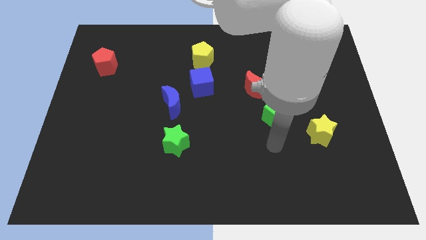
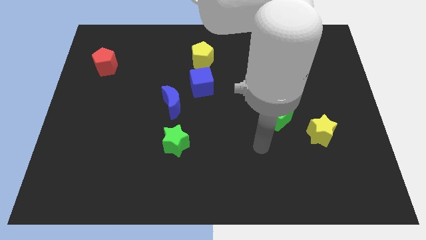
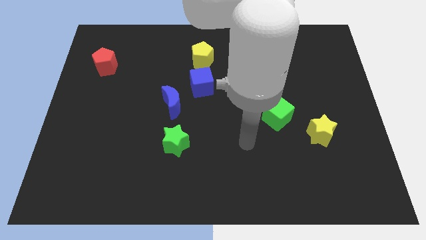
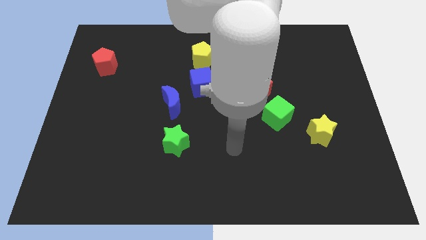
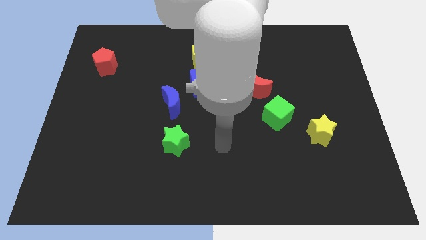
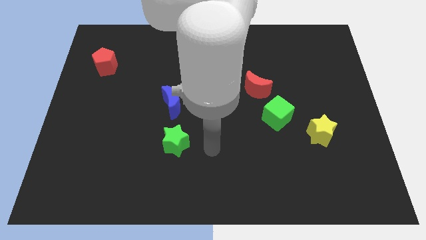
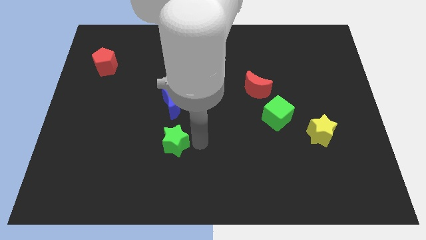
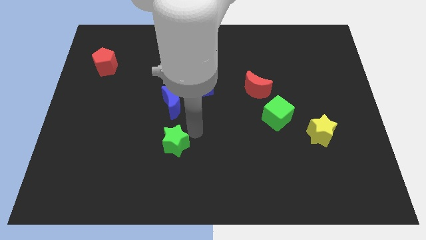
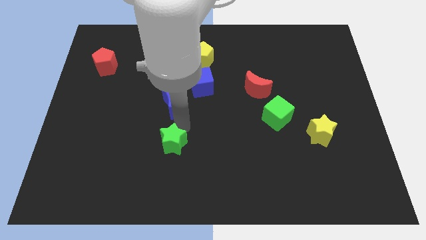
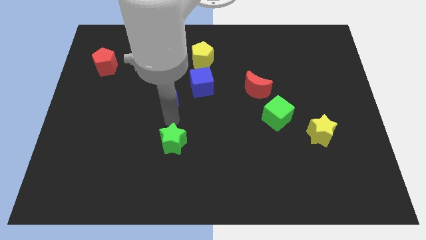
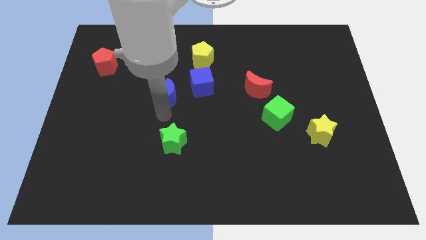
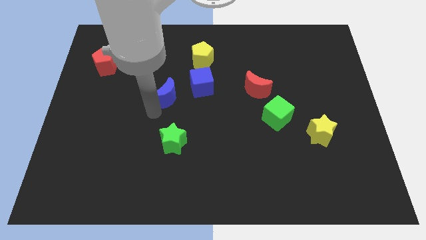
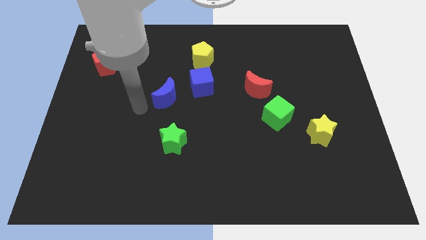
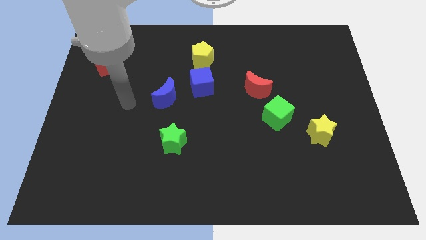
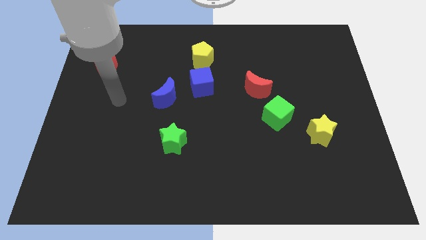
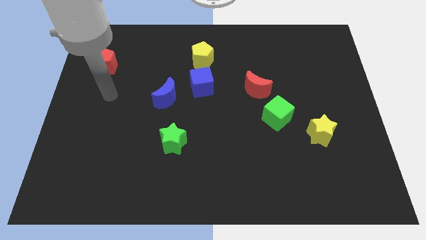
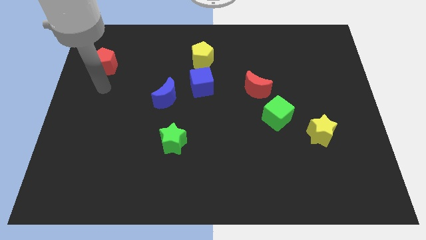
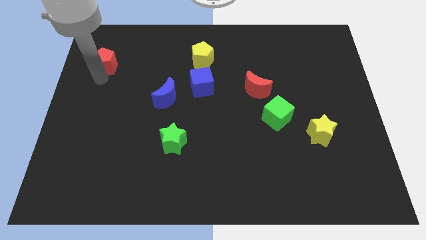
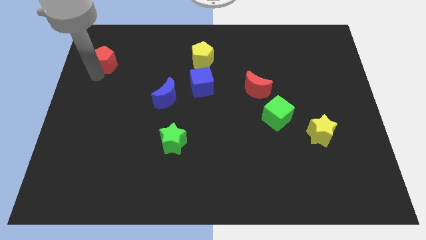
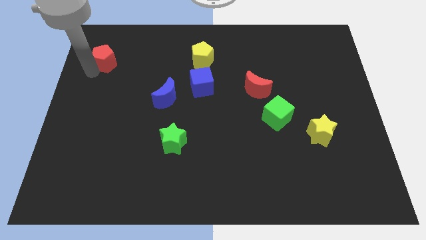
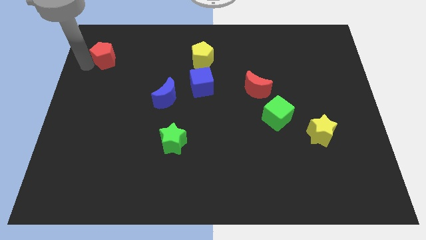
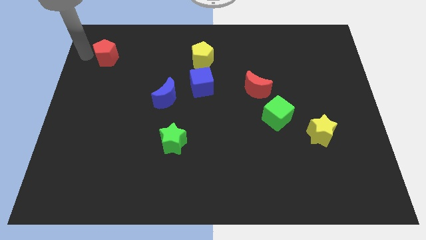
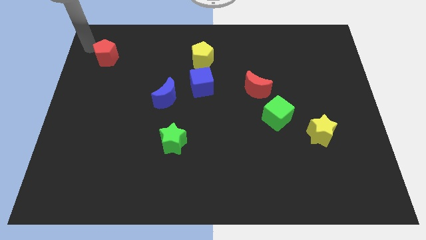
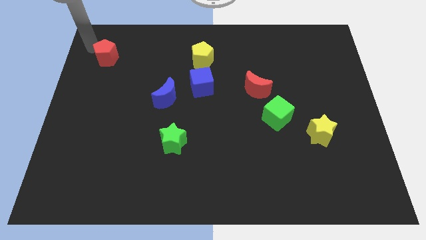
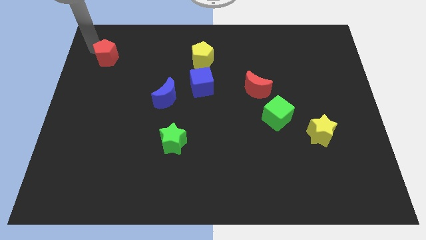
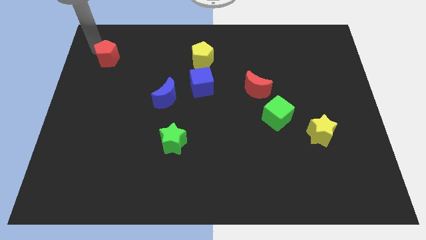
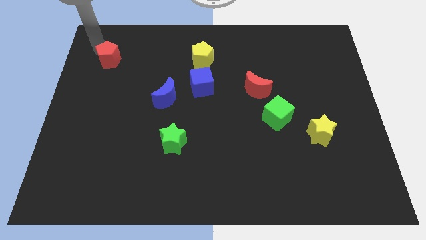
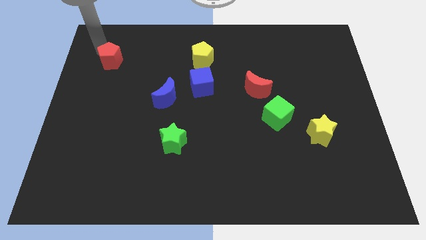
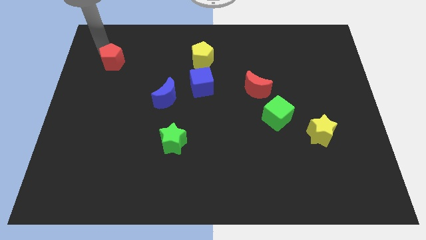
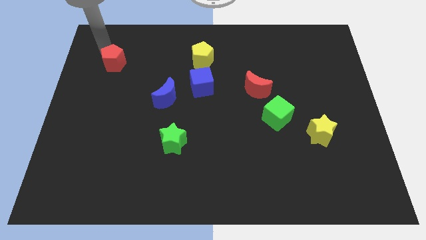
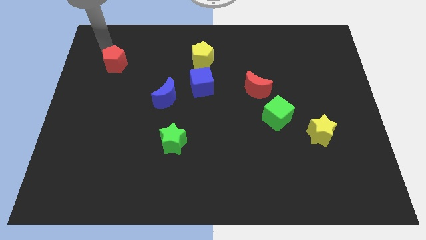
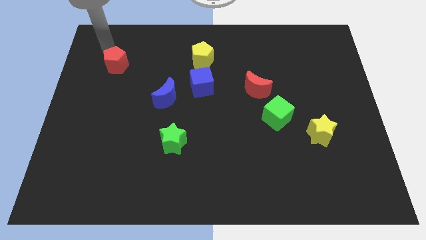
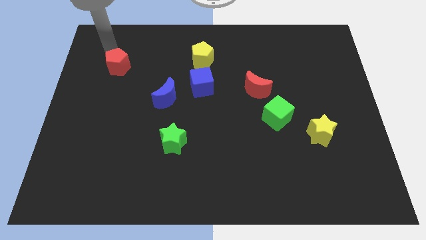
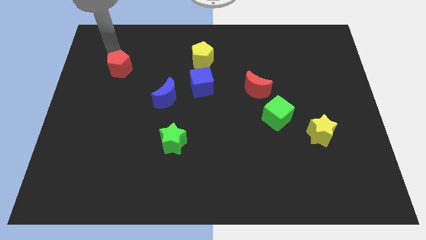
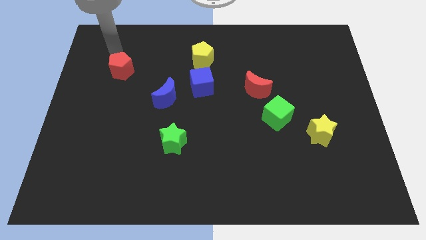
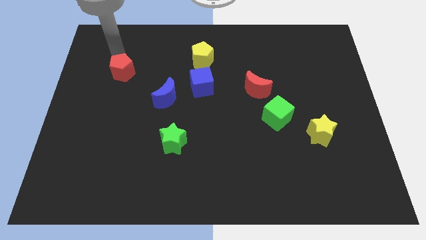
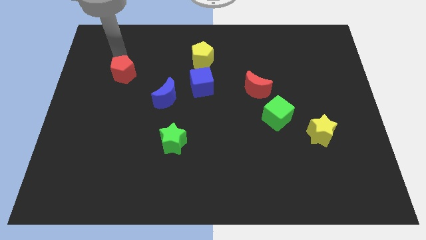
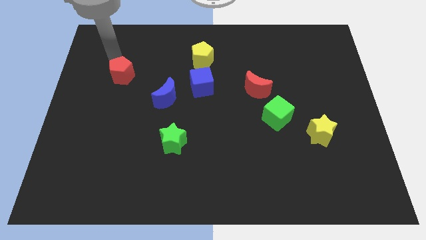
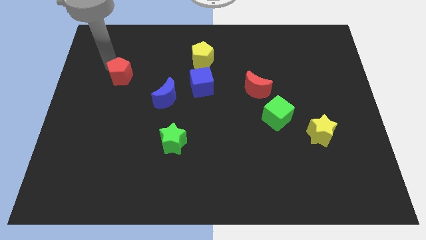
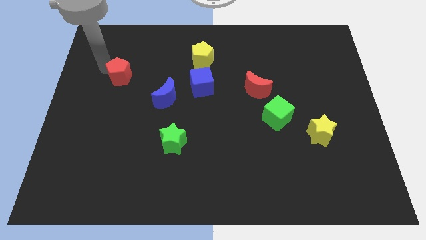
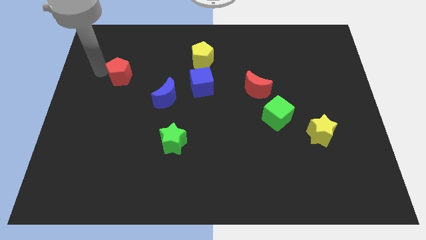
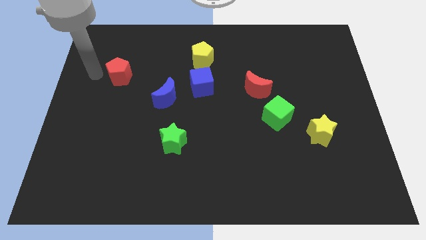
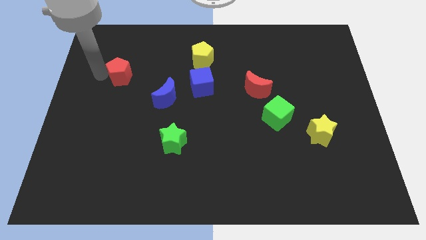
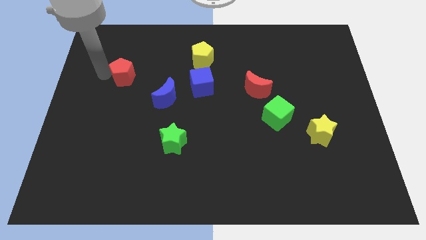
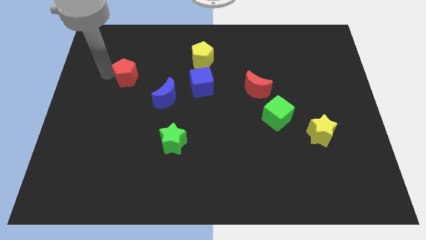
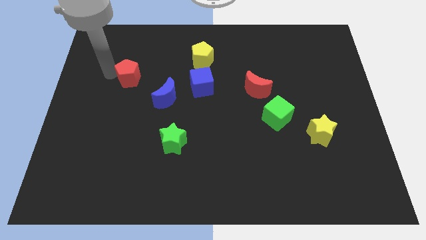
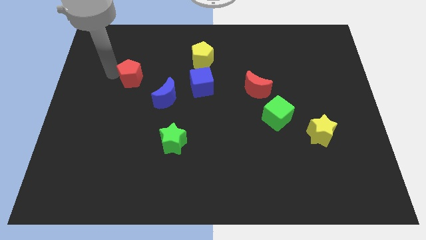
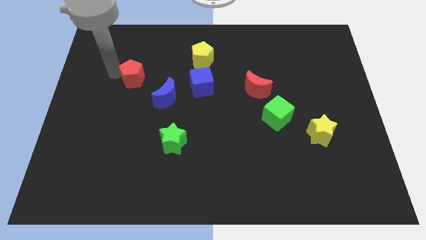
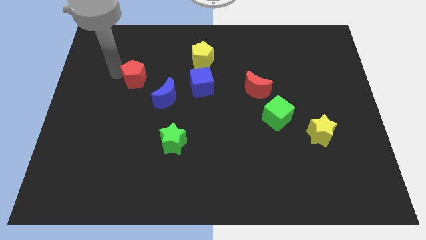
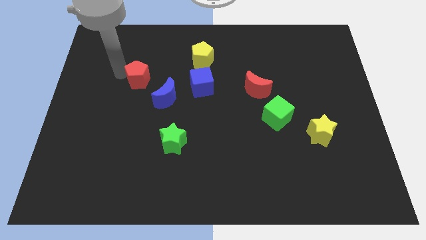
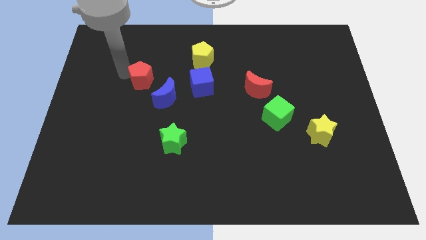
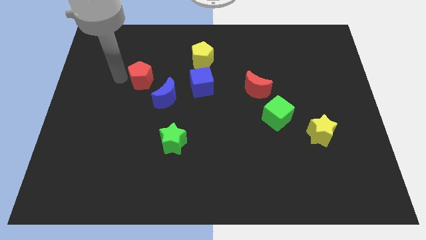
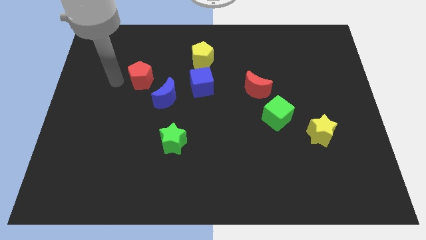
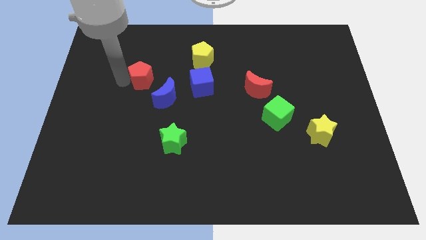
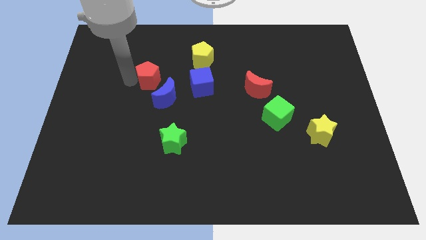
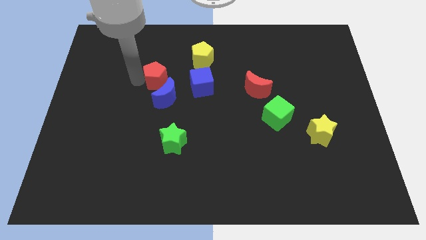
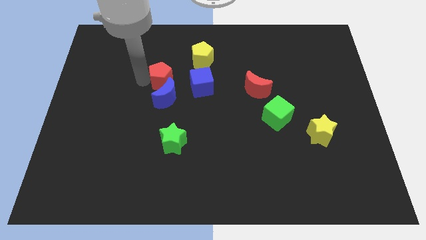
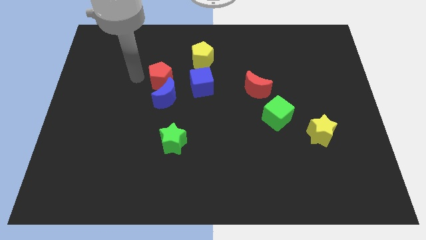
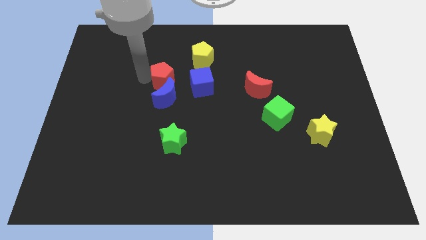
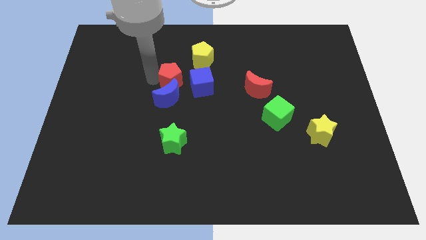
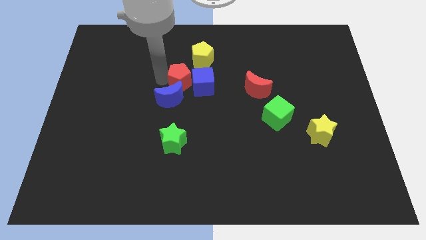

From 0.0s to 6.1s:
move the red pentagon close to the blue cube
